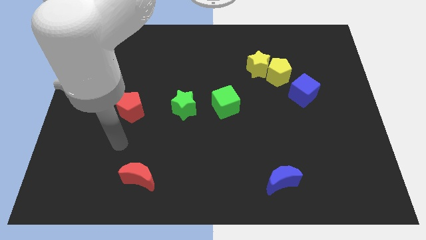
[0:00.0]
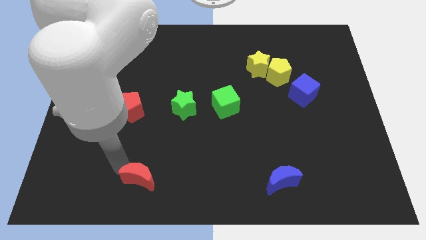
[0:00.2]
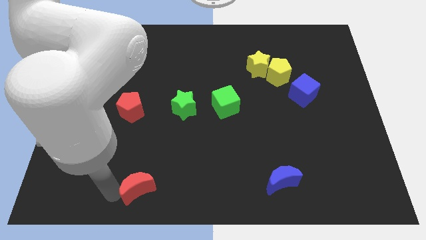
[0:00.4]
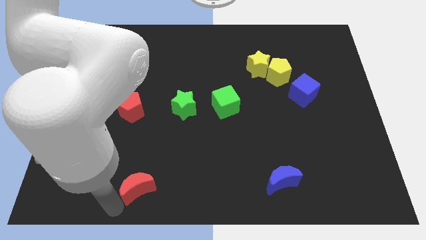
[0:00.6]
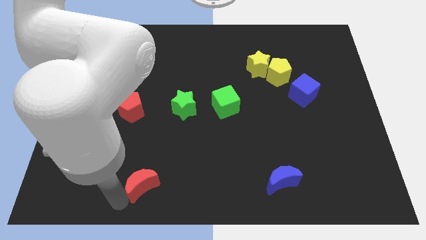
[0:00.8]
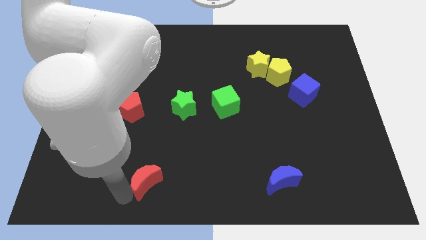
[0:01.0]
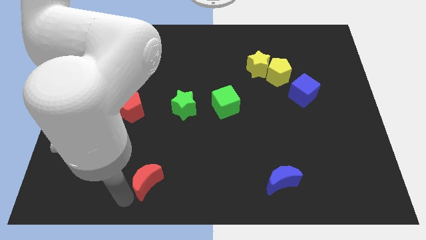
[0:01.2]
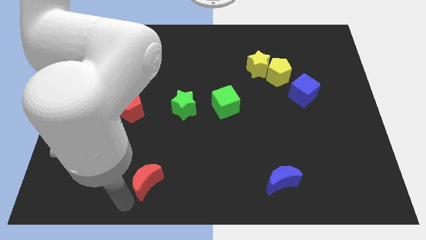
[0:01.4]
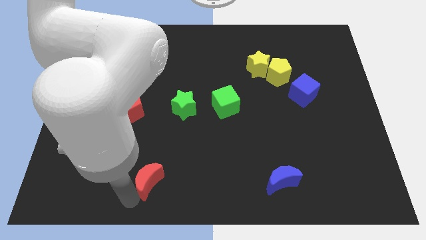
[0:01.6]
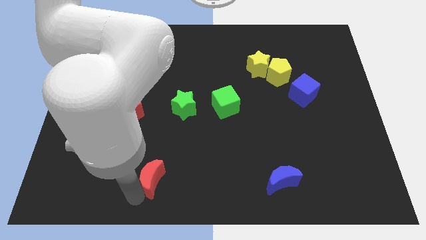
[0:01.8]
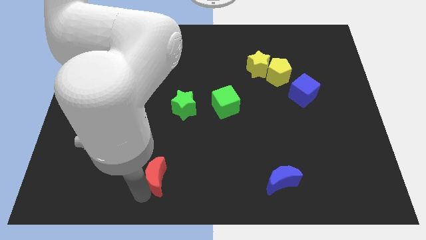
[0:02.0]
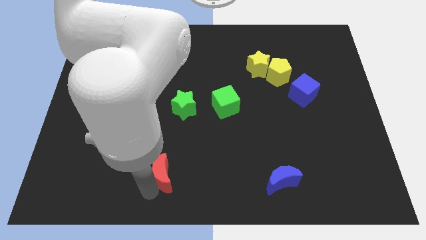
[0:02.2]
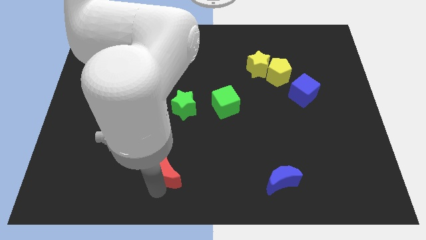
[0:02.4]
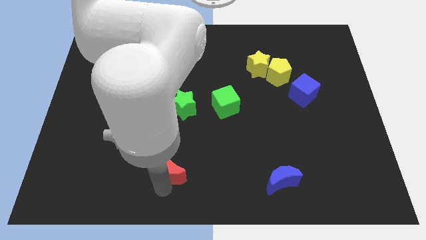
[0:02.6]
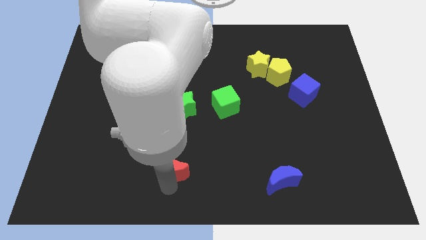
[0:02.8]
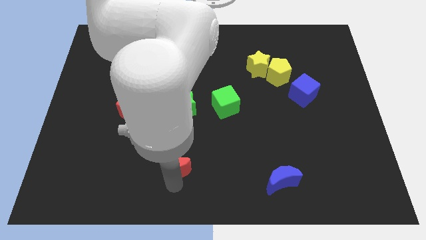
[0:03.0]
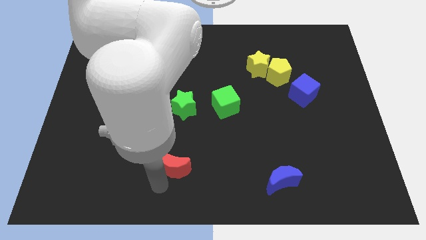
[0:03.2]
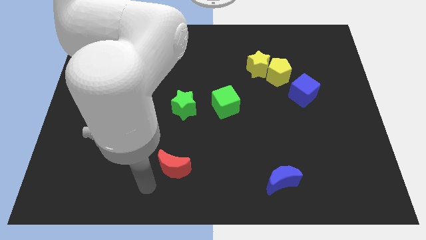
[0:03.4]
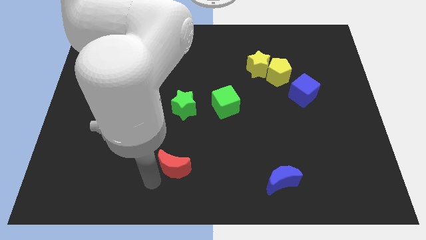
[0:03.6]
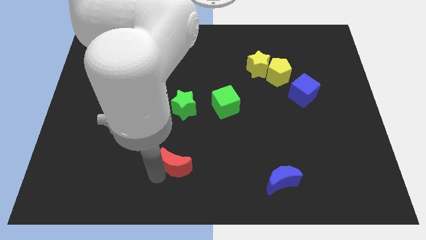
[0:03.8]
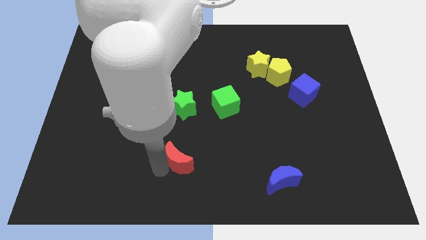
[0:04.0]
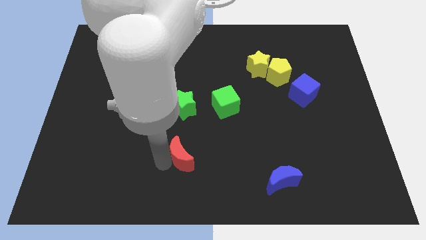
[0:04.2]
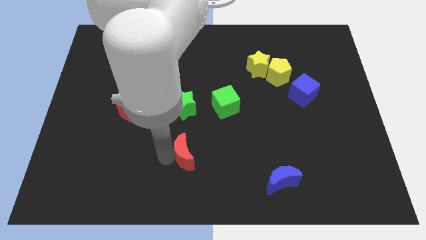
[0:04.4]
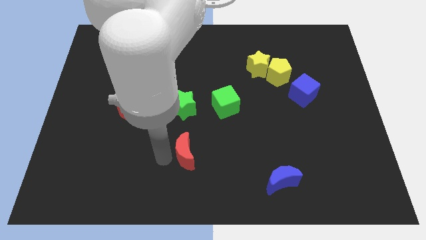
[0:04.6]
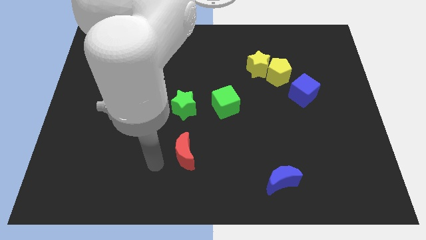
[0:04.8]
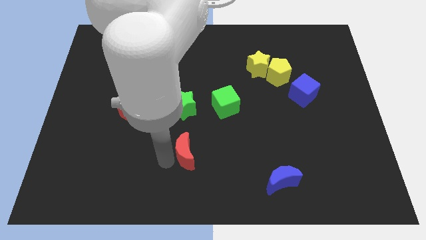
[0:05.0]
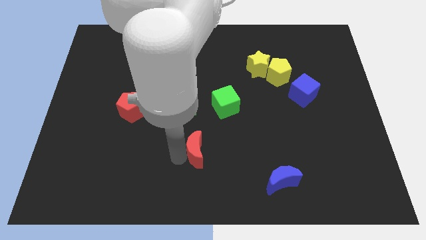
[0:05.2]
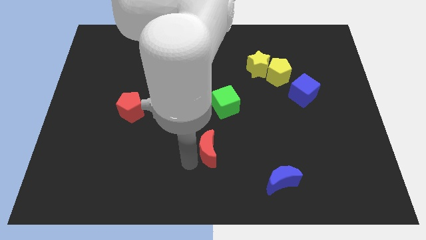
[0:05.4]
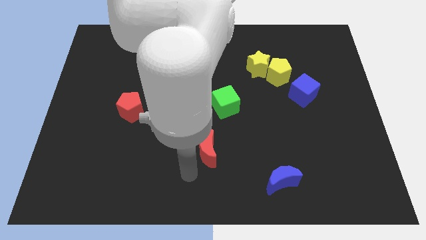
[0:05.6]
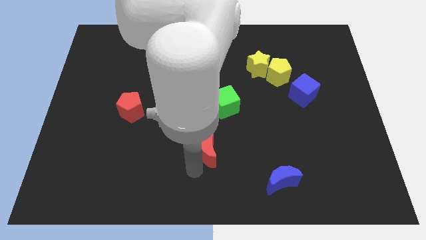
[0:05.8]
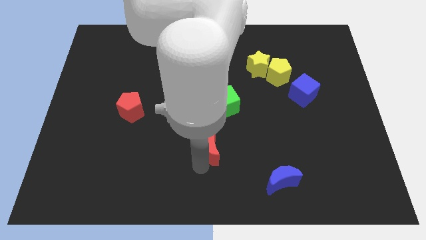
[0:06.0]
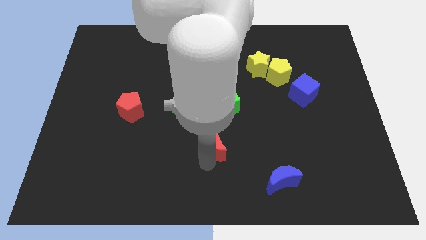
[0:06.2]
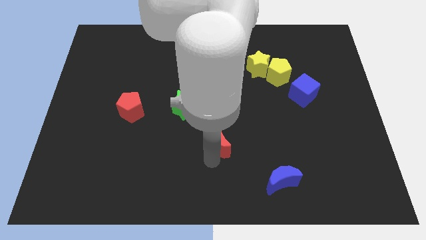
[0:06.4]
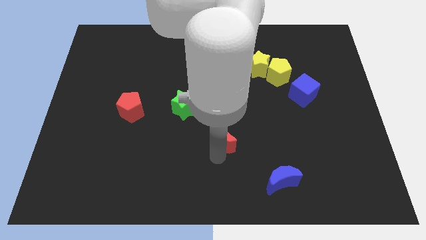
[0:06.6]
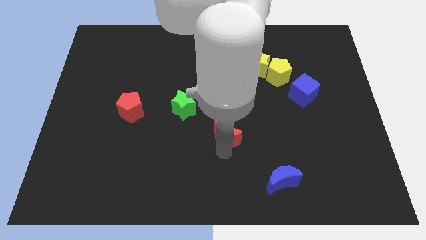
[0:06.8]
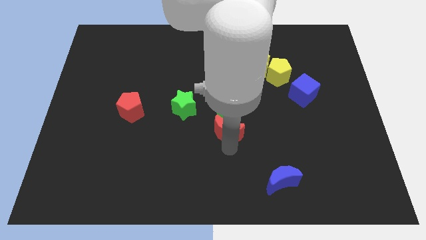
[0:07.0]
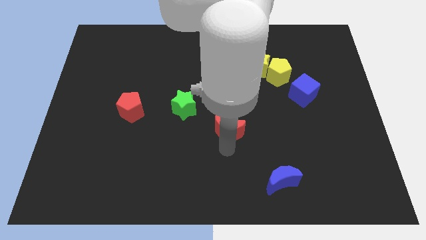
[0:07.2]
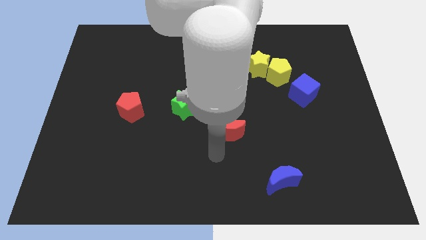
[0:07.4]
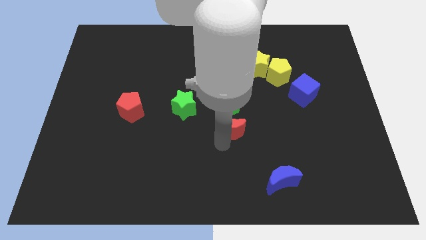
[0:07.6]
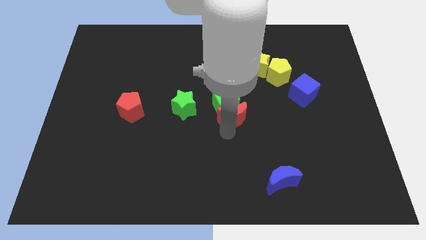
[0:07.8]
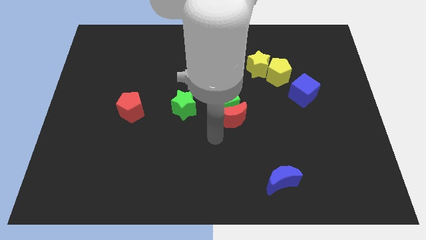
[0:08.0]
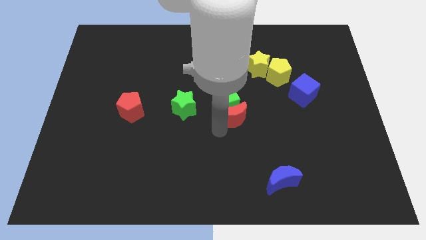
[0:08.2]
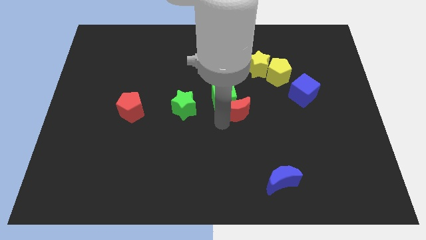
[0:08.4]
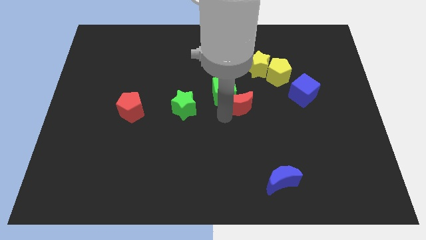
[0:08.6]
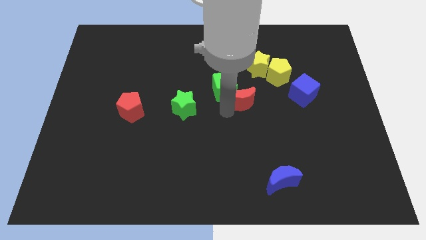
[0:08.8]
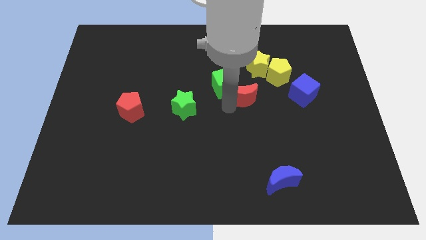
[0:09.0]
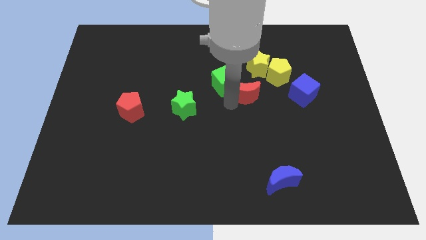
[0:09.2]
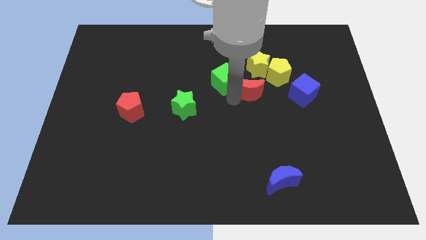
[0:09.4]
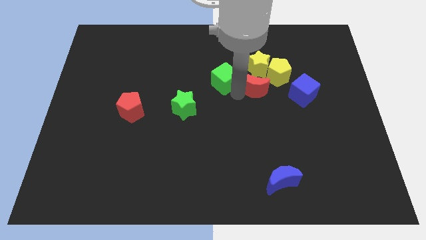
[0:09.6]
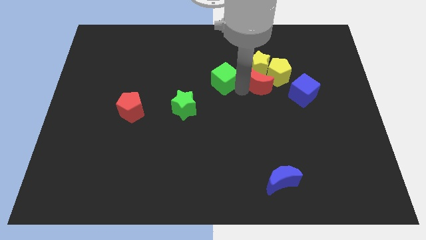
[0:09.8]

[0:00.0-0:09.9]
move the red moon next to the yellow pentagon

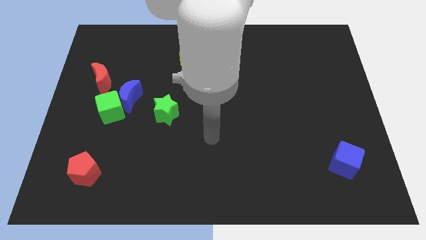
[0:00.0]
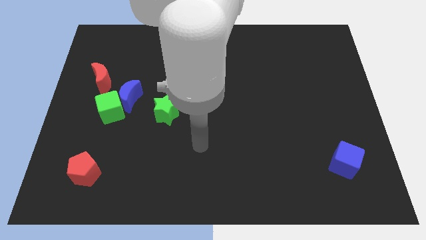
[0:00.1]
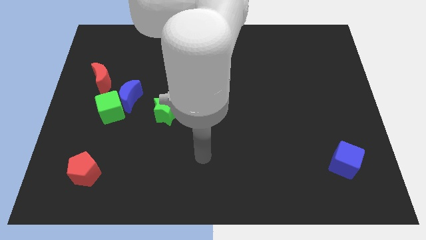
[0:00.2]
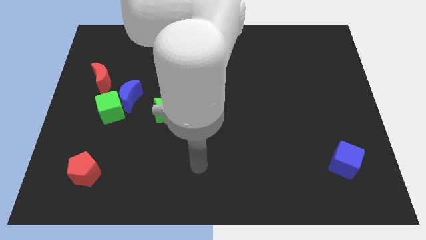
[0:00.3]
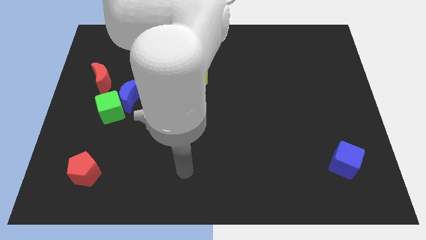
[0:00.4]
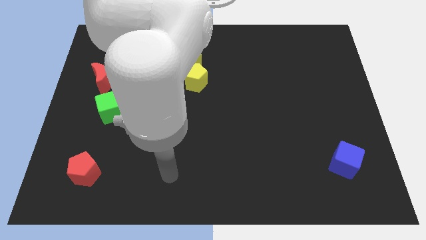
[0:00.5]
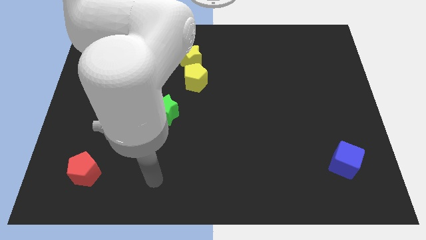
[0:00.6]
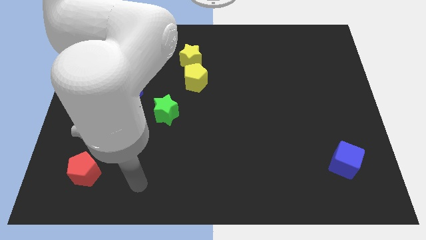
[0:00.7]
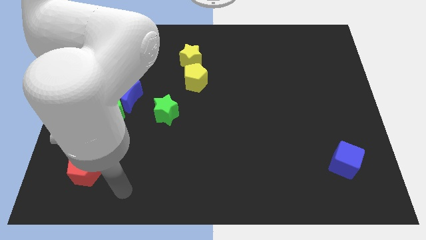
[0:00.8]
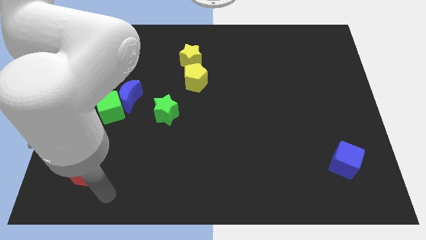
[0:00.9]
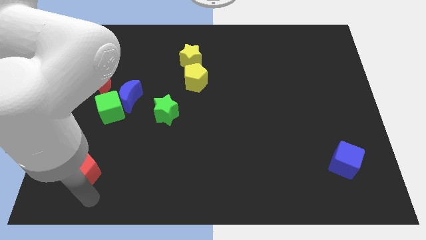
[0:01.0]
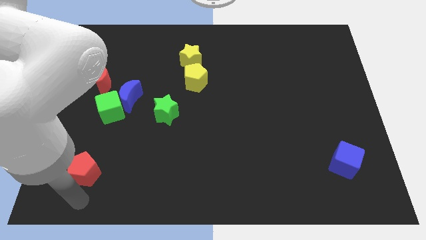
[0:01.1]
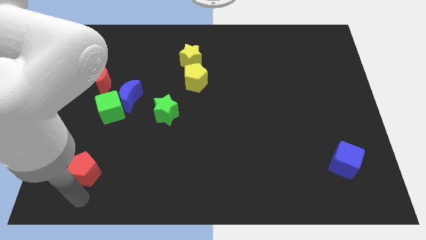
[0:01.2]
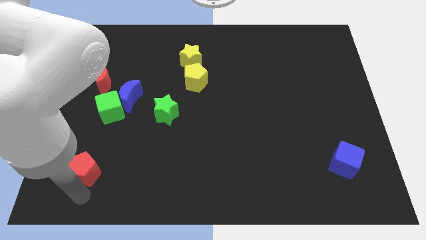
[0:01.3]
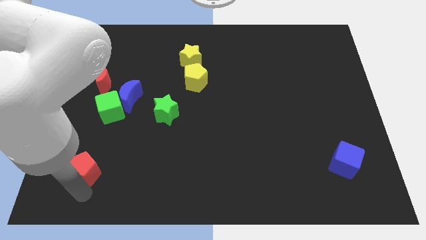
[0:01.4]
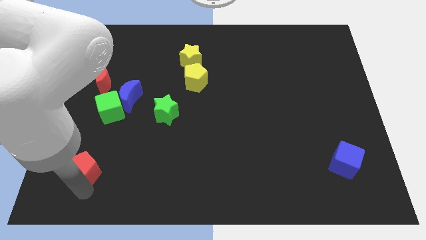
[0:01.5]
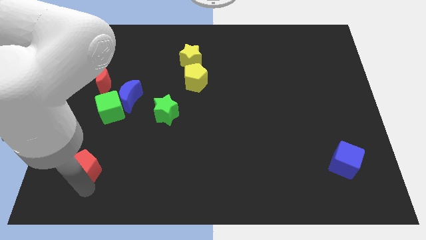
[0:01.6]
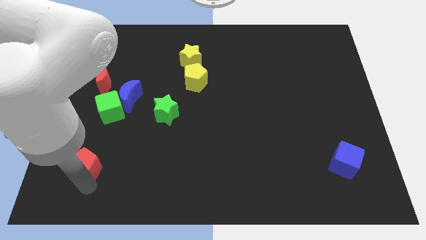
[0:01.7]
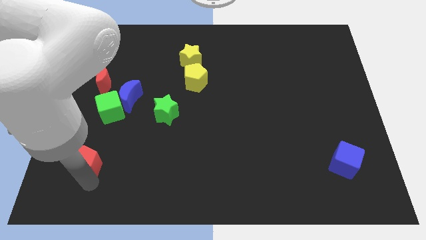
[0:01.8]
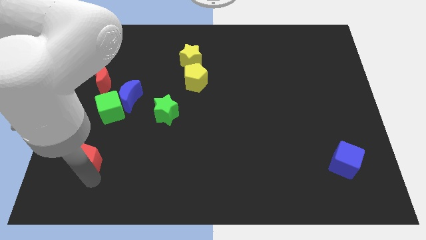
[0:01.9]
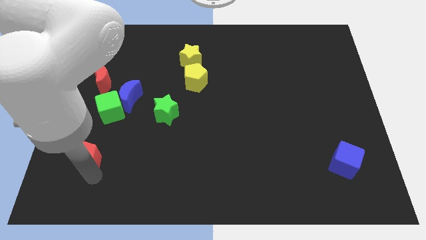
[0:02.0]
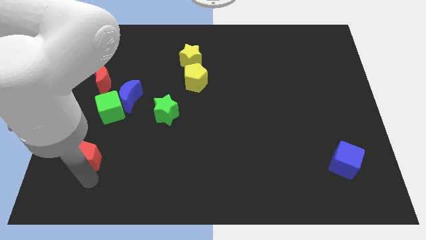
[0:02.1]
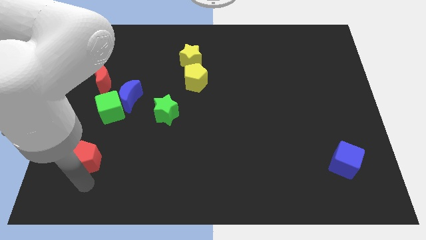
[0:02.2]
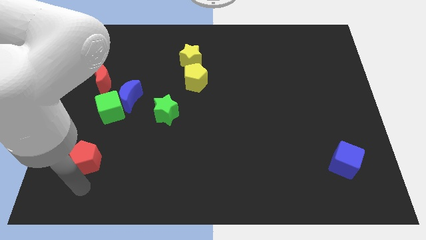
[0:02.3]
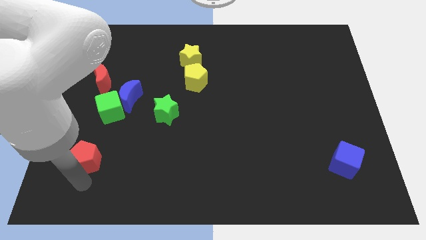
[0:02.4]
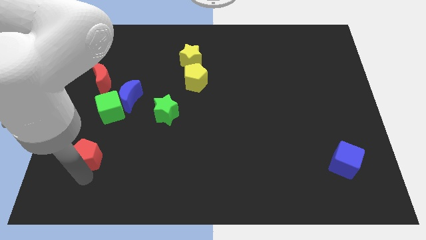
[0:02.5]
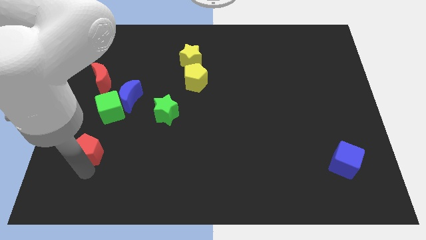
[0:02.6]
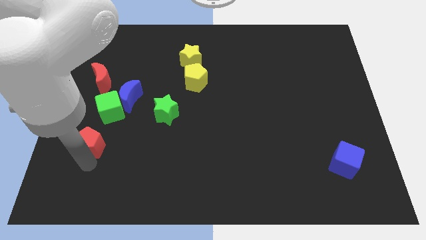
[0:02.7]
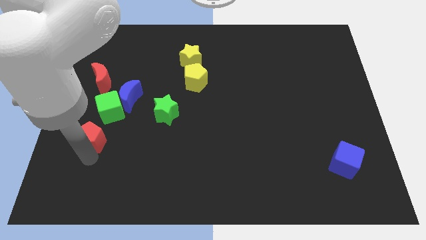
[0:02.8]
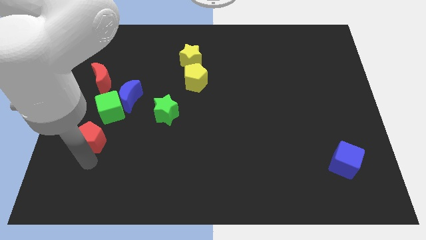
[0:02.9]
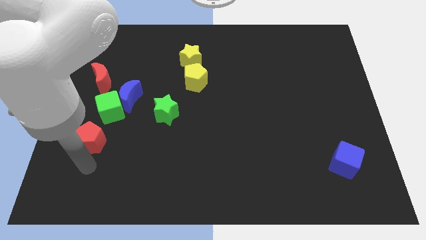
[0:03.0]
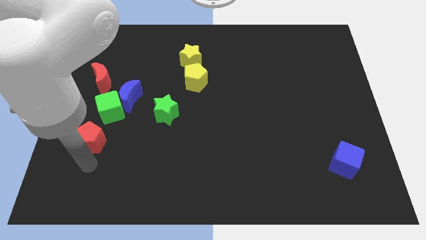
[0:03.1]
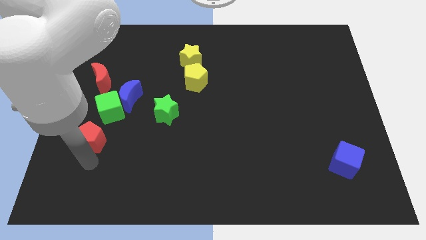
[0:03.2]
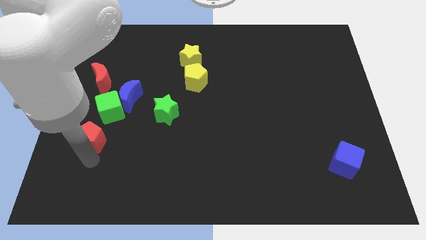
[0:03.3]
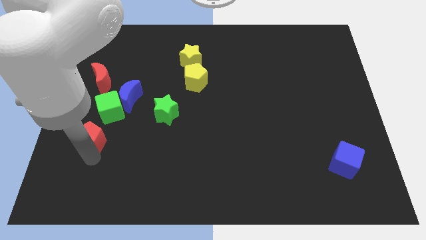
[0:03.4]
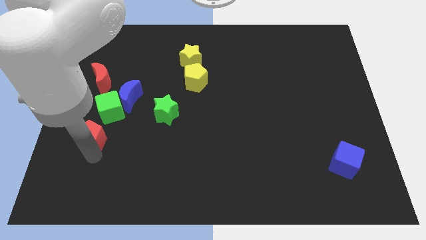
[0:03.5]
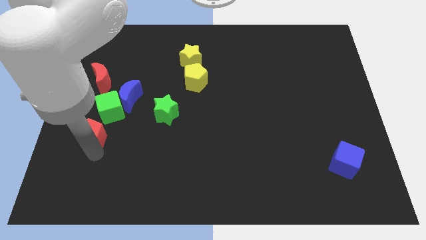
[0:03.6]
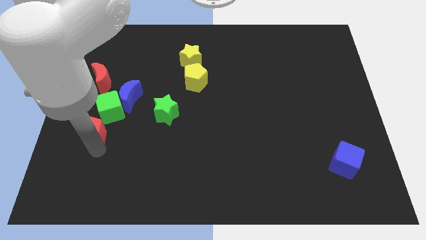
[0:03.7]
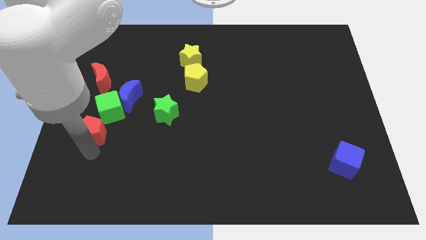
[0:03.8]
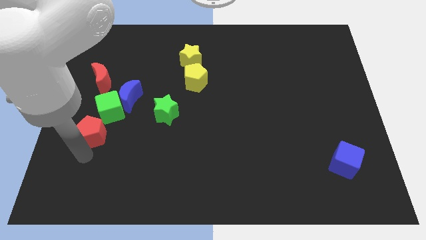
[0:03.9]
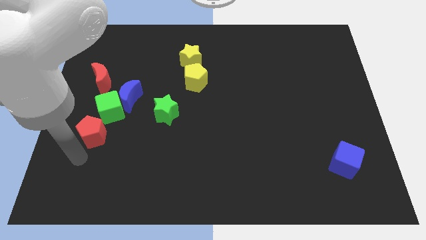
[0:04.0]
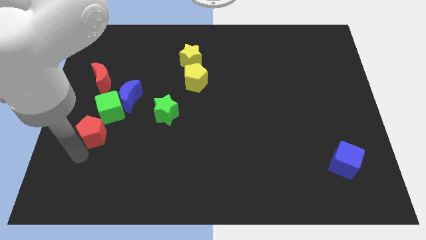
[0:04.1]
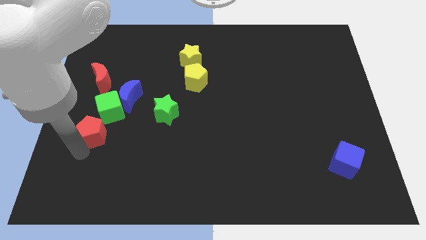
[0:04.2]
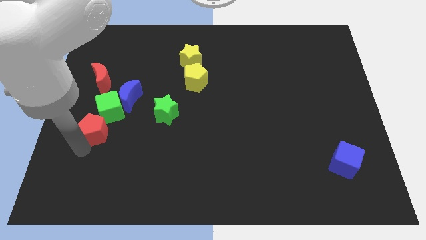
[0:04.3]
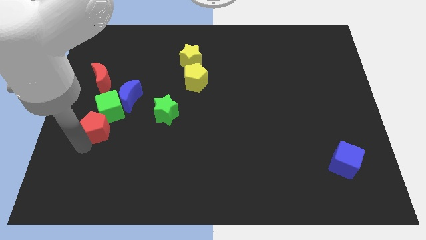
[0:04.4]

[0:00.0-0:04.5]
put the red pentagon to the green cube
